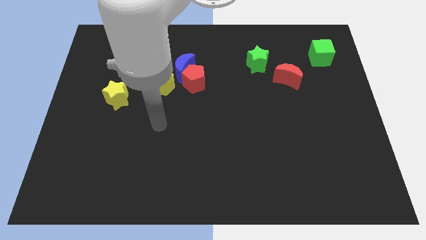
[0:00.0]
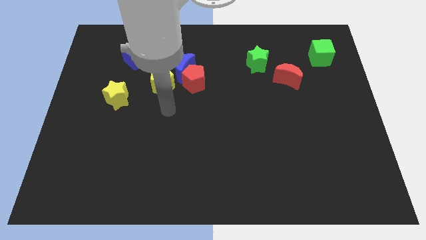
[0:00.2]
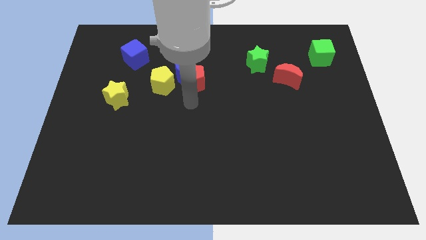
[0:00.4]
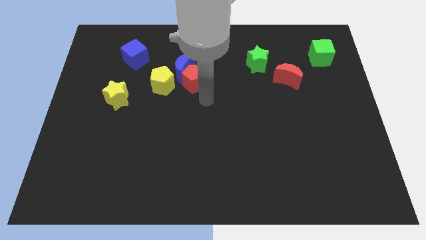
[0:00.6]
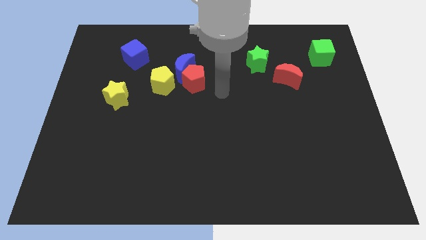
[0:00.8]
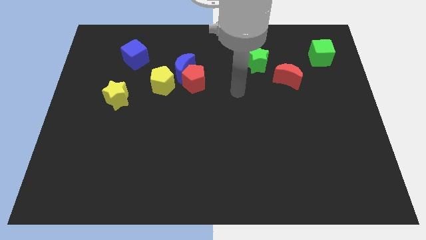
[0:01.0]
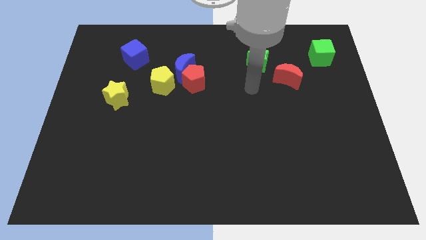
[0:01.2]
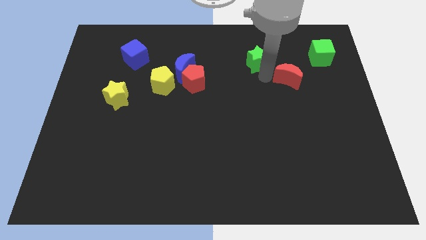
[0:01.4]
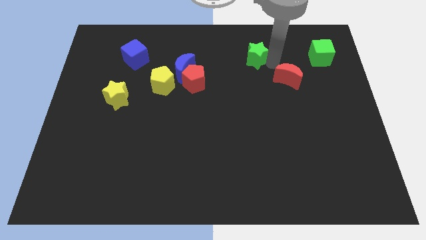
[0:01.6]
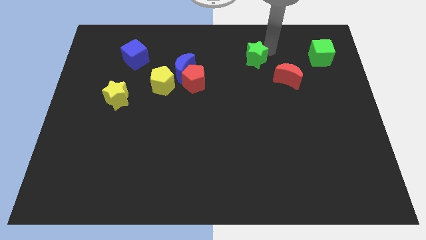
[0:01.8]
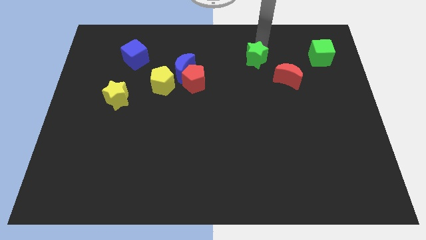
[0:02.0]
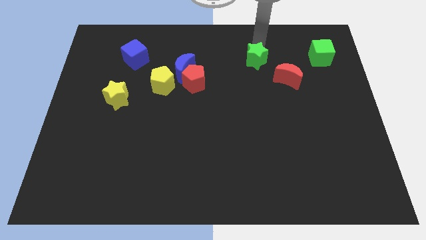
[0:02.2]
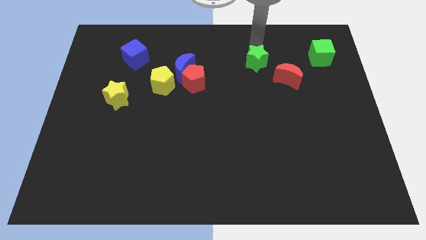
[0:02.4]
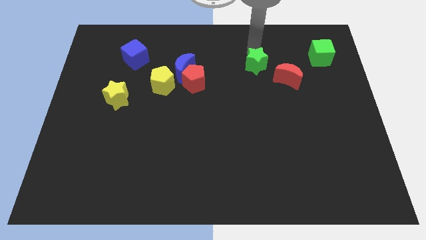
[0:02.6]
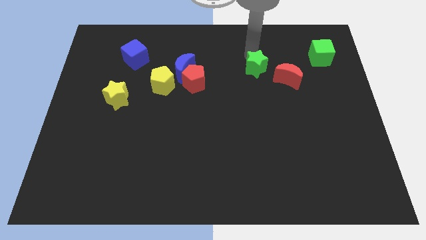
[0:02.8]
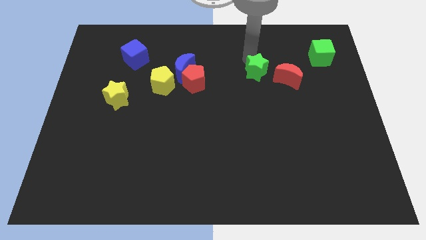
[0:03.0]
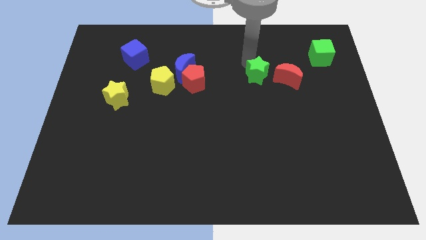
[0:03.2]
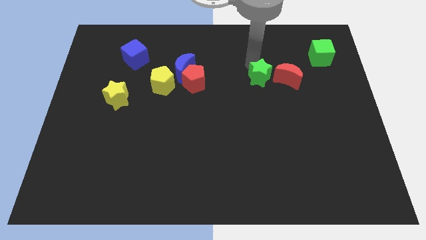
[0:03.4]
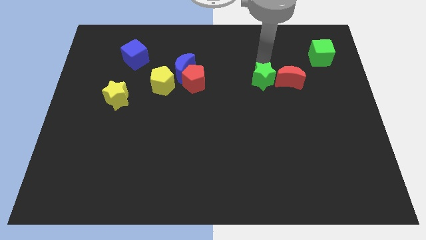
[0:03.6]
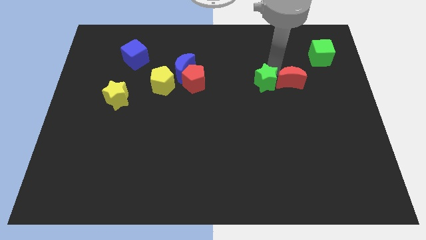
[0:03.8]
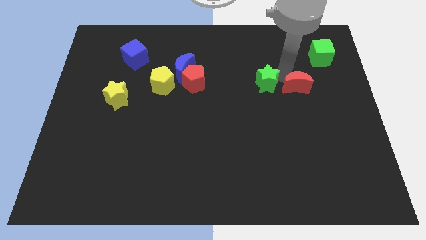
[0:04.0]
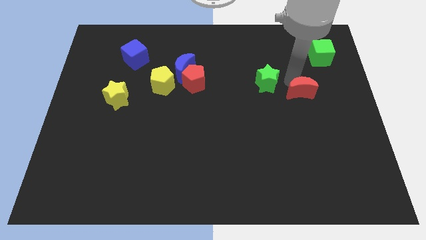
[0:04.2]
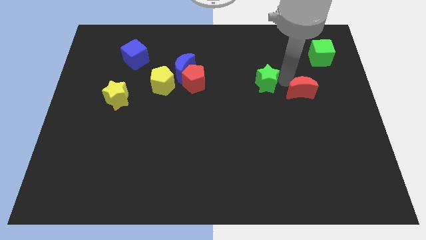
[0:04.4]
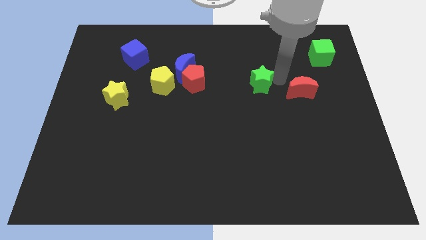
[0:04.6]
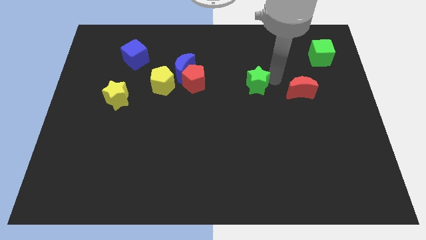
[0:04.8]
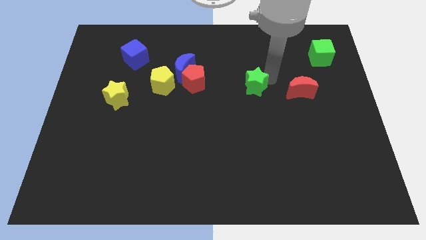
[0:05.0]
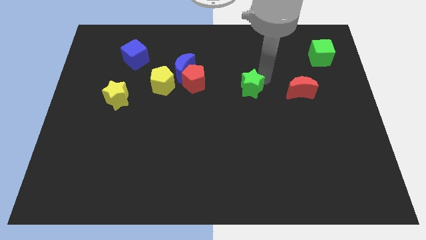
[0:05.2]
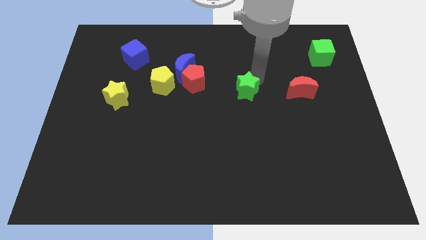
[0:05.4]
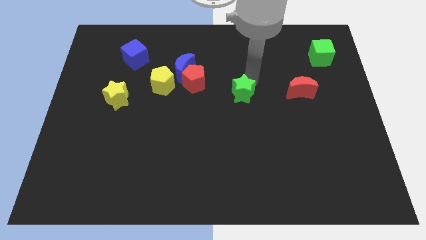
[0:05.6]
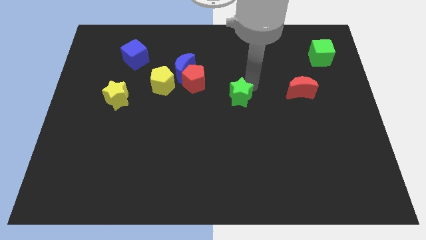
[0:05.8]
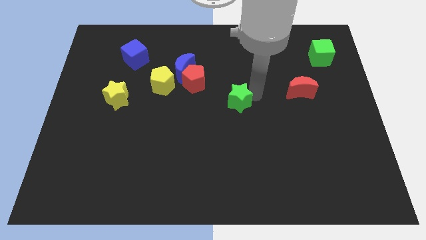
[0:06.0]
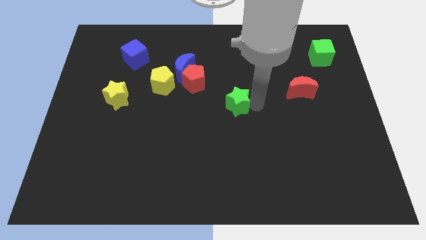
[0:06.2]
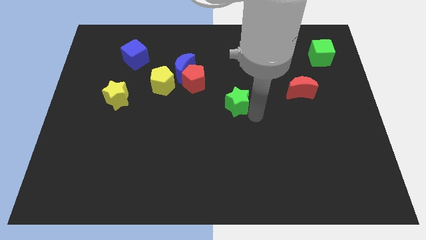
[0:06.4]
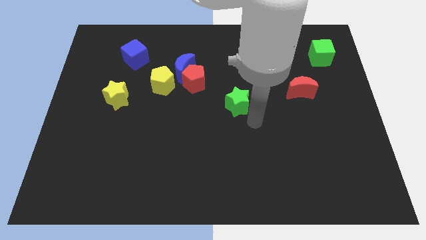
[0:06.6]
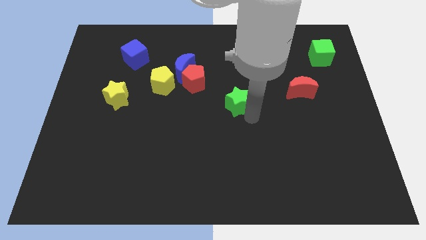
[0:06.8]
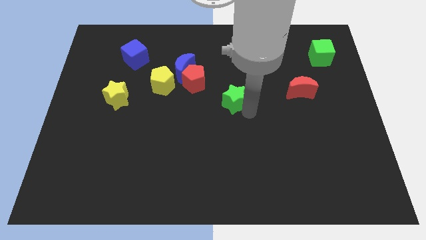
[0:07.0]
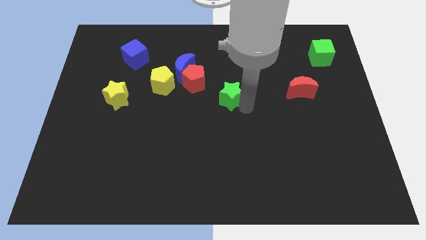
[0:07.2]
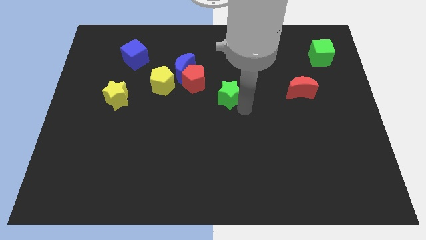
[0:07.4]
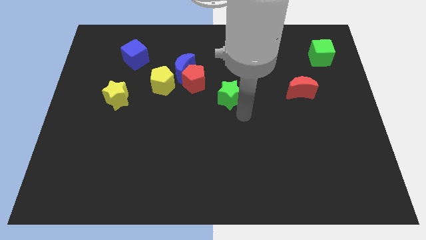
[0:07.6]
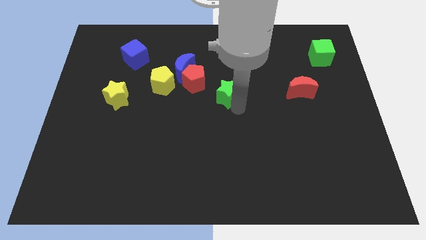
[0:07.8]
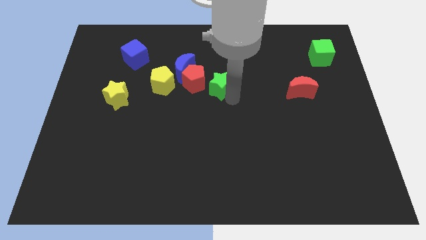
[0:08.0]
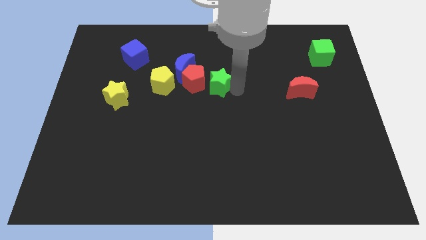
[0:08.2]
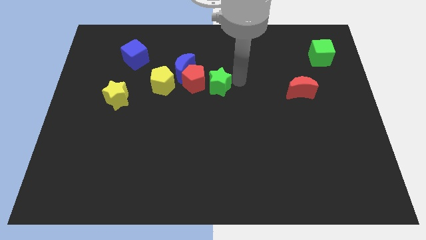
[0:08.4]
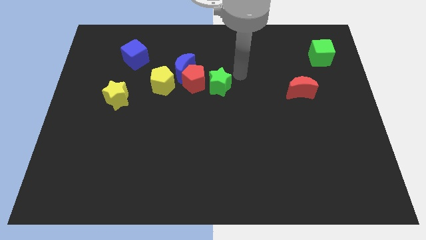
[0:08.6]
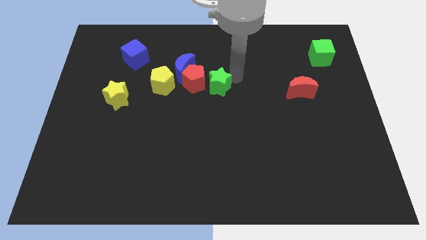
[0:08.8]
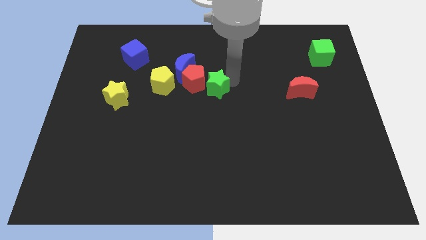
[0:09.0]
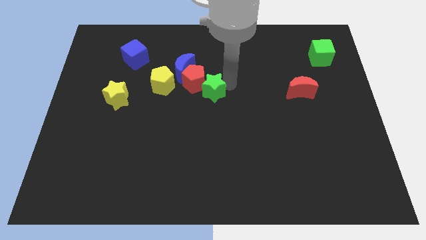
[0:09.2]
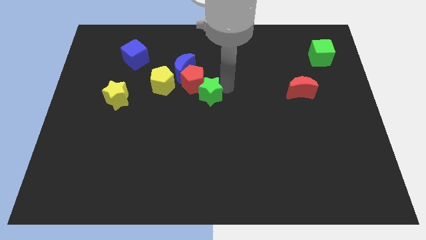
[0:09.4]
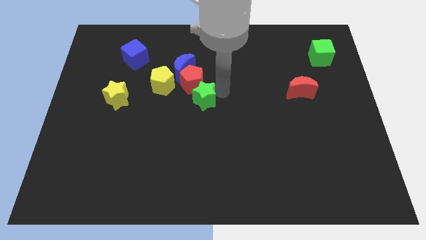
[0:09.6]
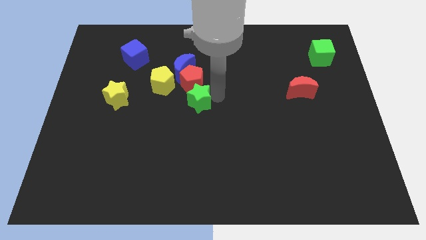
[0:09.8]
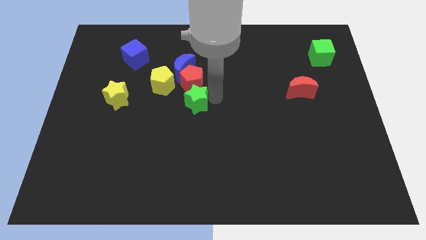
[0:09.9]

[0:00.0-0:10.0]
move the green star to the bottom left of the red pentagon
